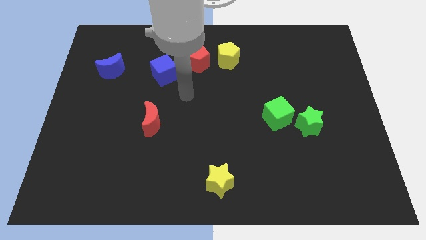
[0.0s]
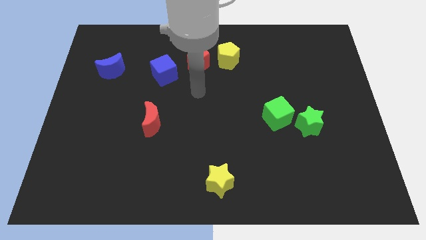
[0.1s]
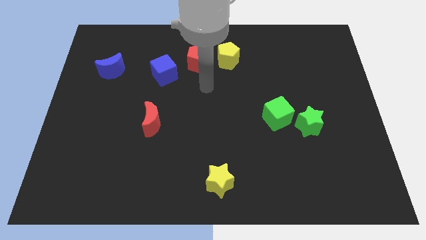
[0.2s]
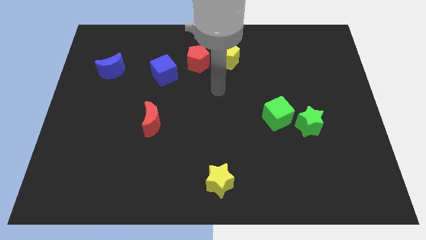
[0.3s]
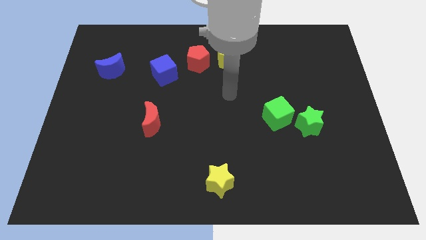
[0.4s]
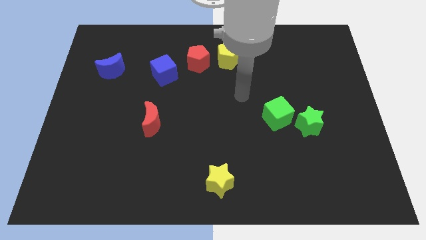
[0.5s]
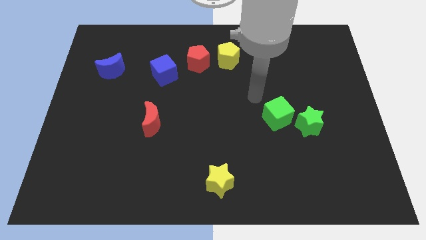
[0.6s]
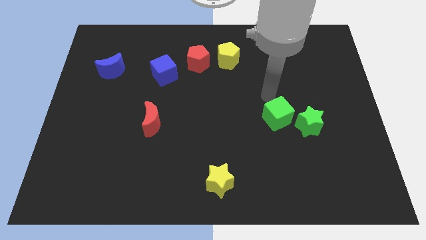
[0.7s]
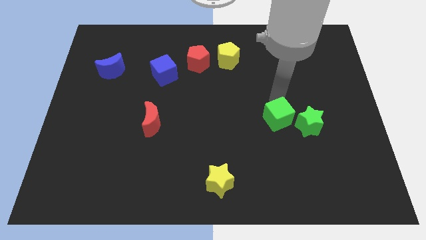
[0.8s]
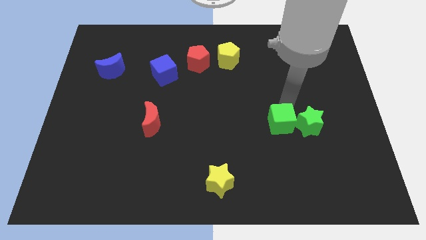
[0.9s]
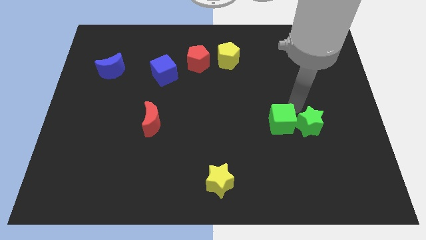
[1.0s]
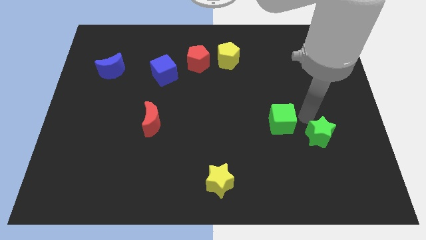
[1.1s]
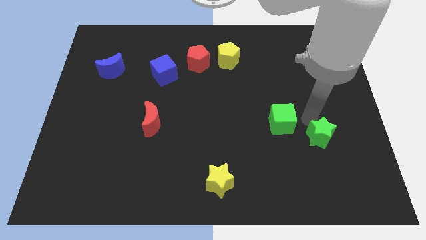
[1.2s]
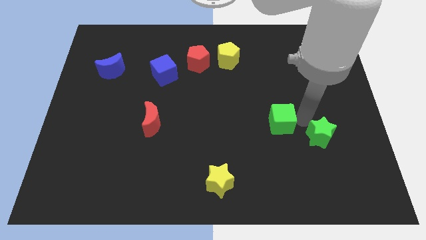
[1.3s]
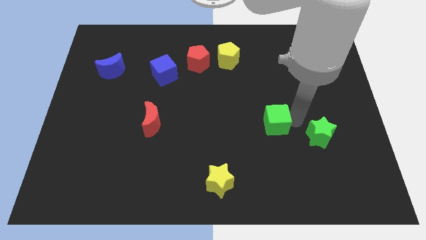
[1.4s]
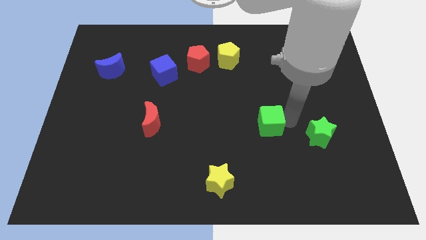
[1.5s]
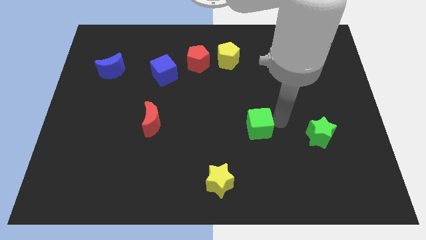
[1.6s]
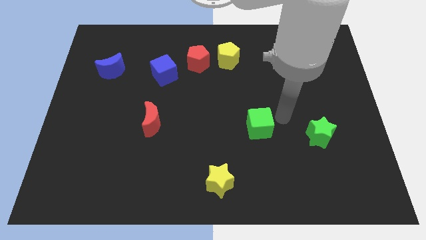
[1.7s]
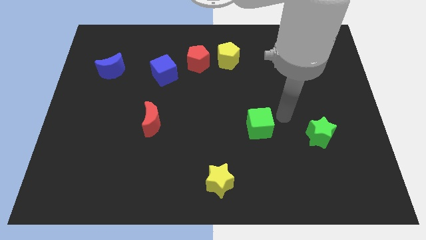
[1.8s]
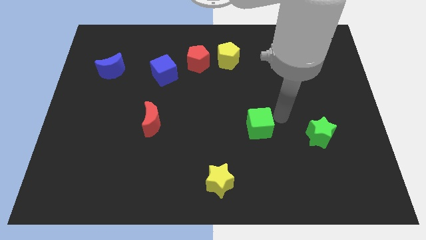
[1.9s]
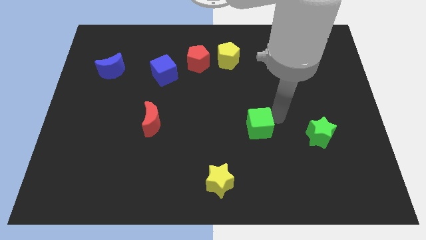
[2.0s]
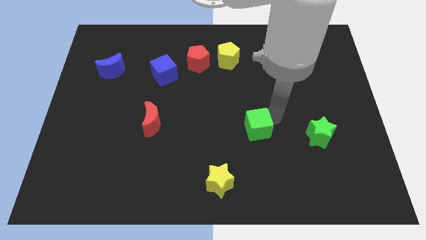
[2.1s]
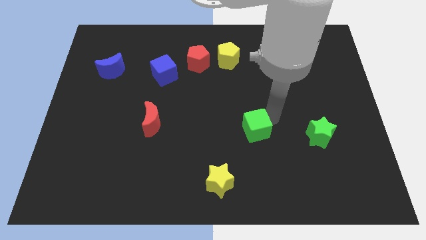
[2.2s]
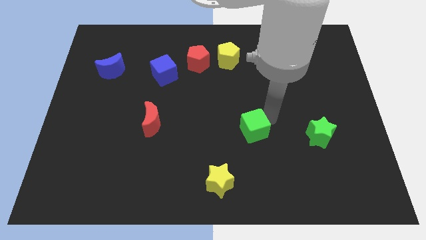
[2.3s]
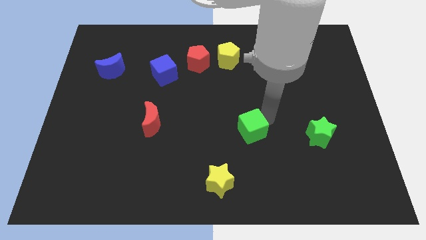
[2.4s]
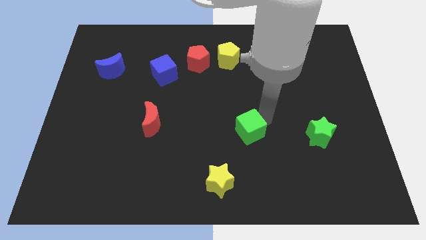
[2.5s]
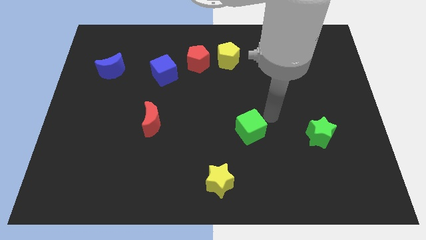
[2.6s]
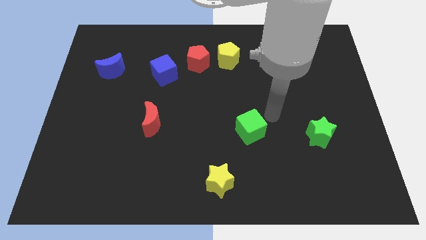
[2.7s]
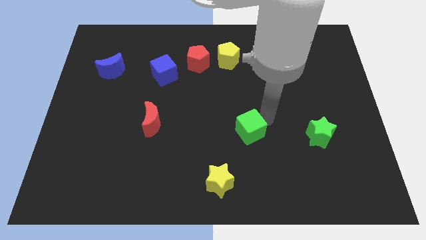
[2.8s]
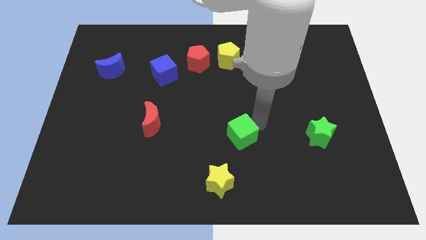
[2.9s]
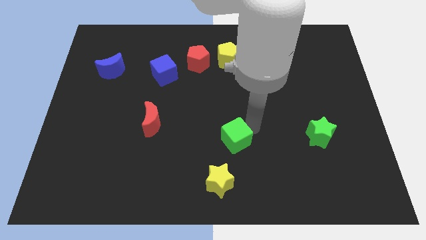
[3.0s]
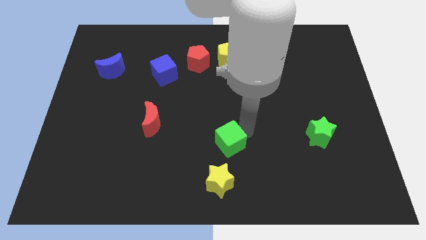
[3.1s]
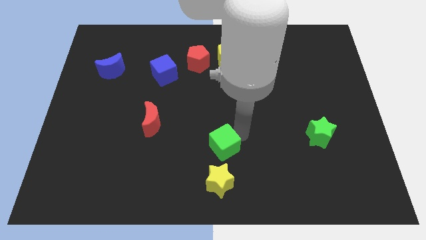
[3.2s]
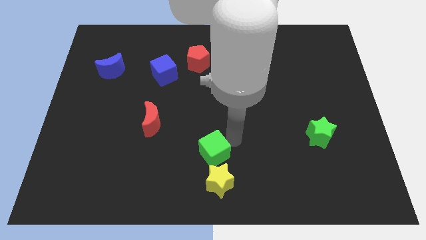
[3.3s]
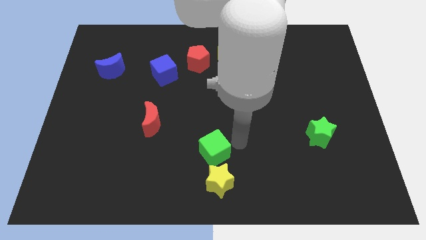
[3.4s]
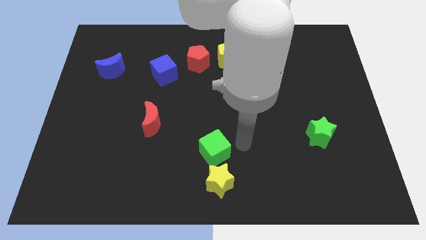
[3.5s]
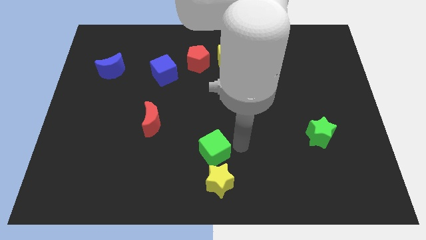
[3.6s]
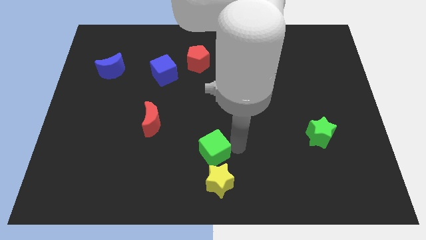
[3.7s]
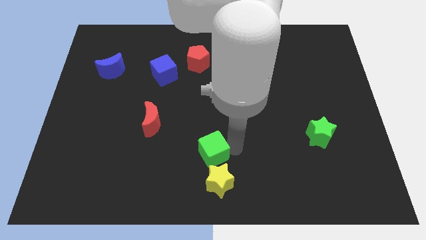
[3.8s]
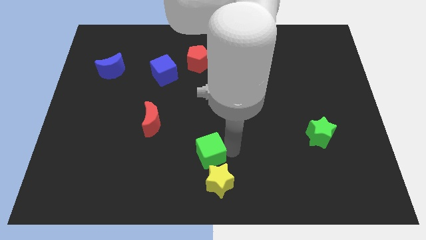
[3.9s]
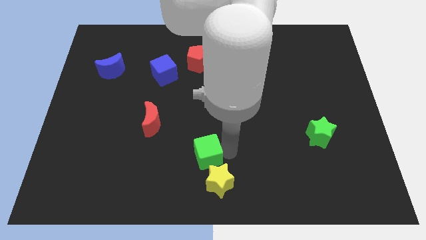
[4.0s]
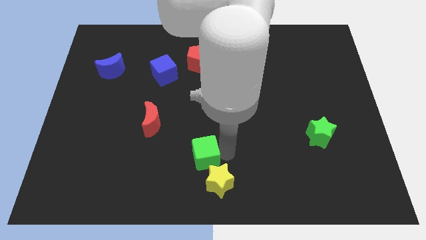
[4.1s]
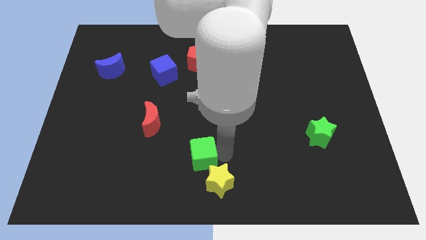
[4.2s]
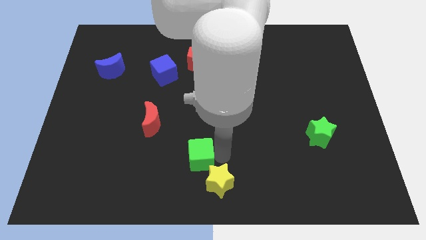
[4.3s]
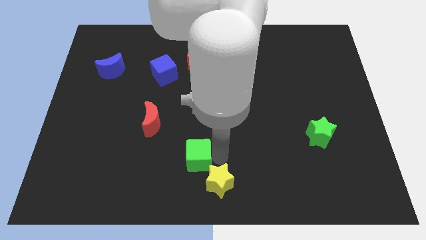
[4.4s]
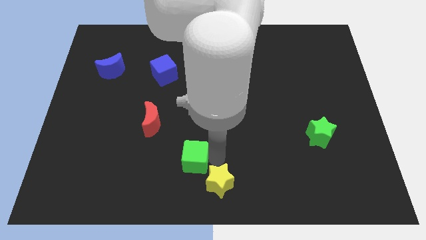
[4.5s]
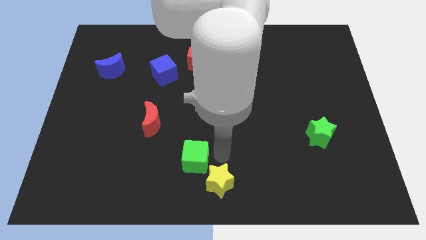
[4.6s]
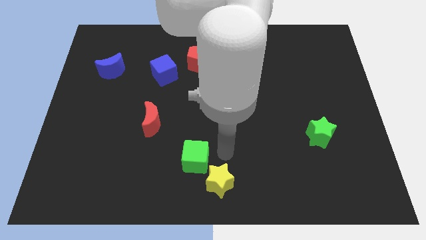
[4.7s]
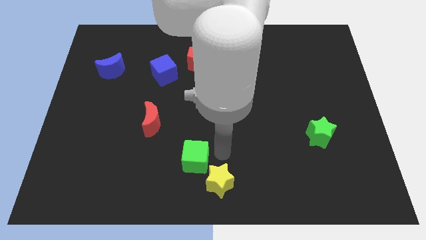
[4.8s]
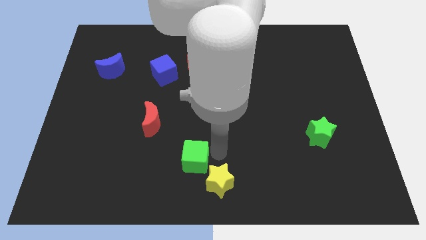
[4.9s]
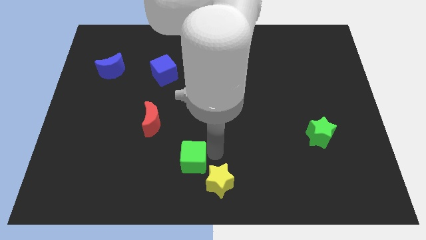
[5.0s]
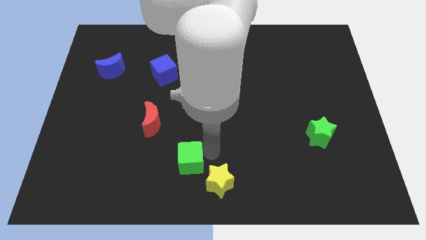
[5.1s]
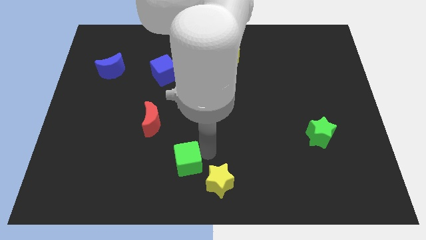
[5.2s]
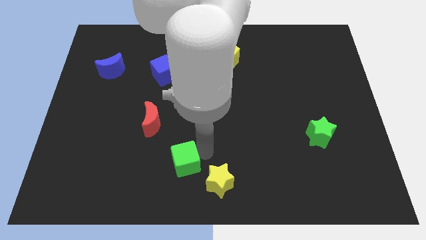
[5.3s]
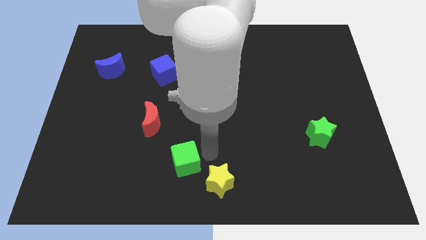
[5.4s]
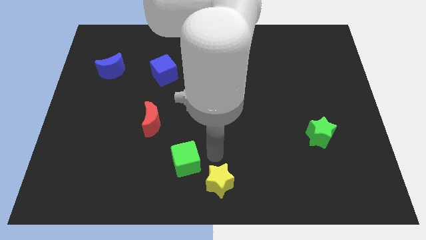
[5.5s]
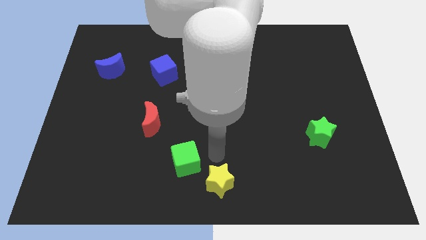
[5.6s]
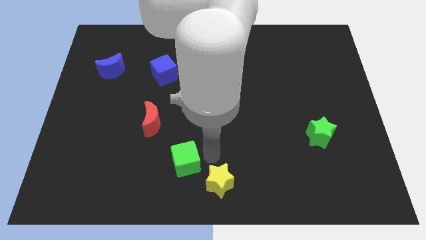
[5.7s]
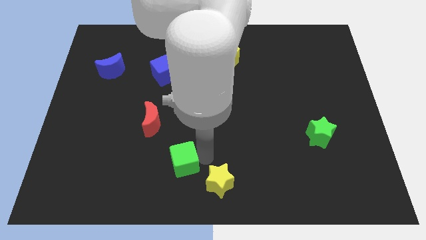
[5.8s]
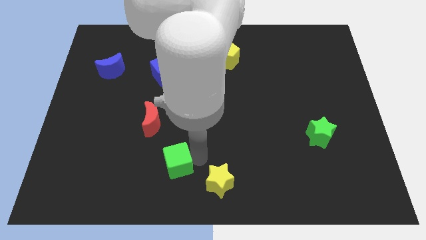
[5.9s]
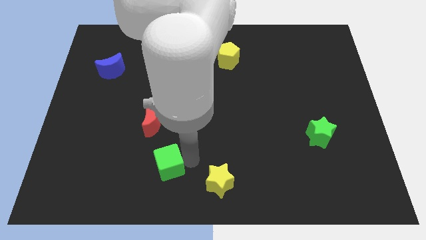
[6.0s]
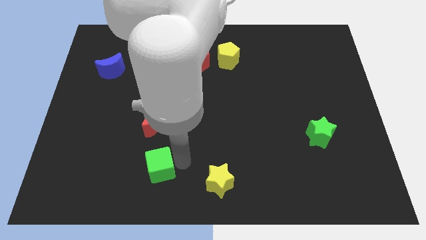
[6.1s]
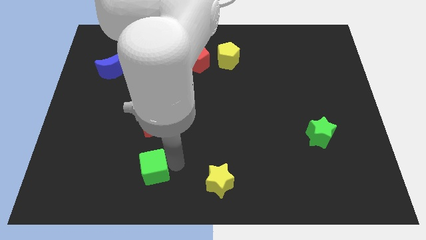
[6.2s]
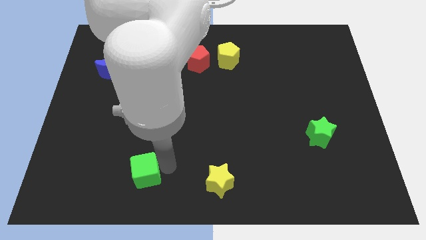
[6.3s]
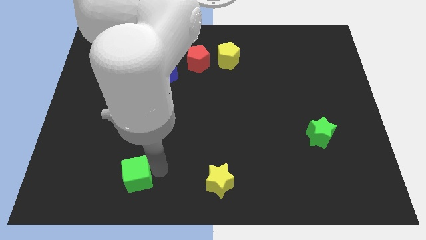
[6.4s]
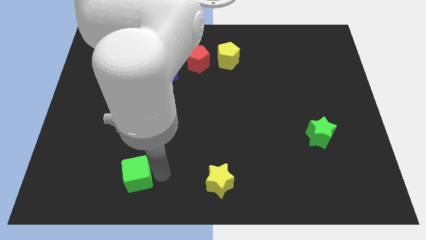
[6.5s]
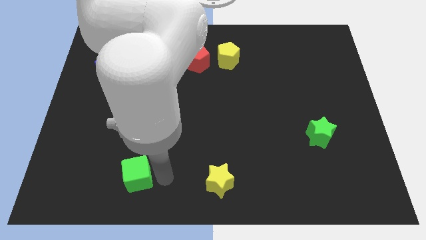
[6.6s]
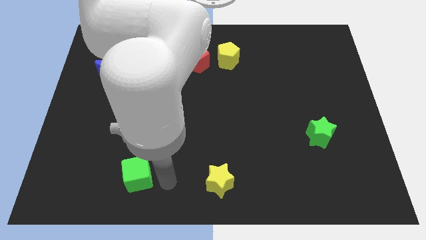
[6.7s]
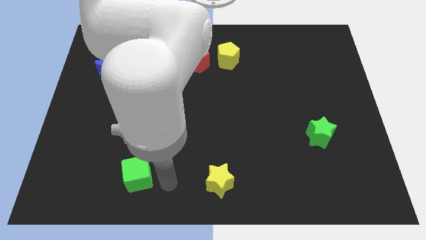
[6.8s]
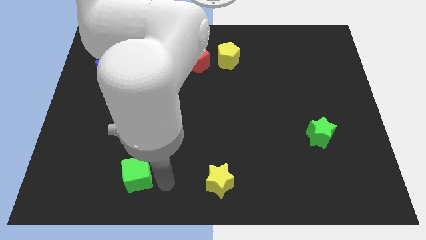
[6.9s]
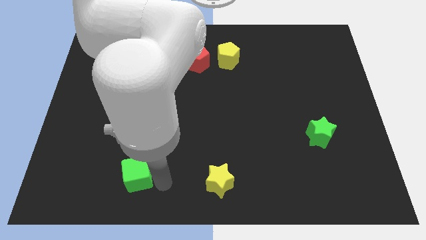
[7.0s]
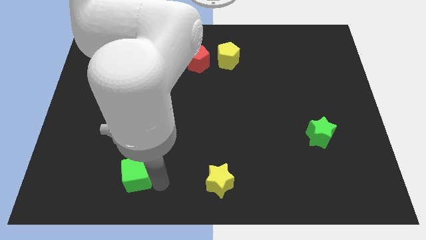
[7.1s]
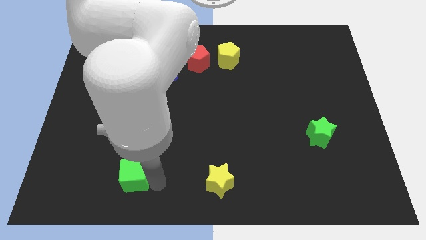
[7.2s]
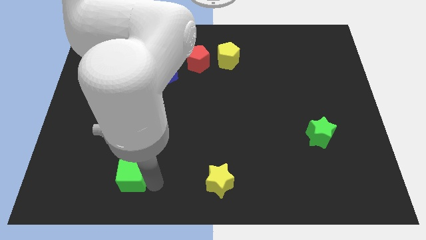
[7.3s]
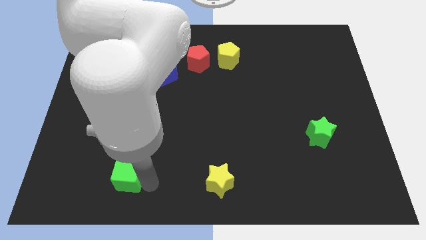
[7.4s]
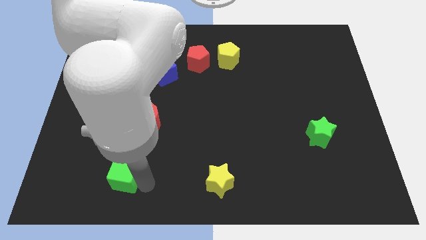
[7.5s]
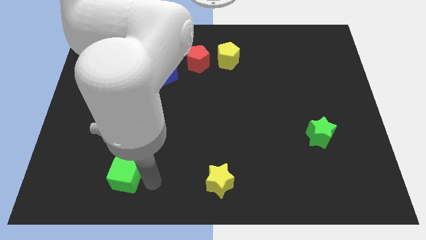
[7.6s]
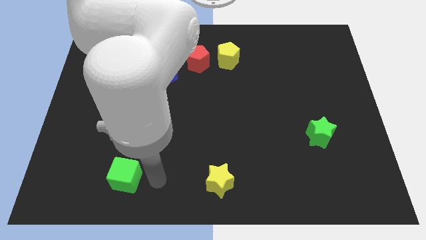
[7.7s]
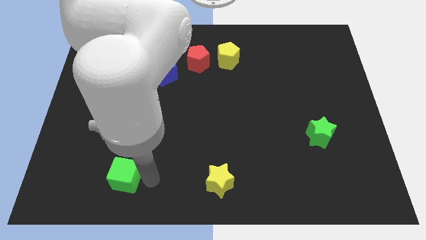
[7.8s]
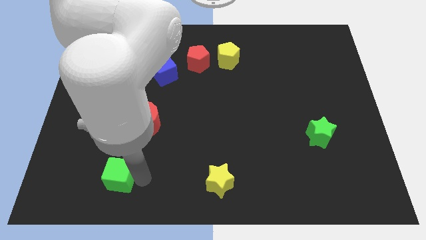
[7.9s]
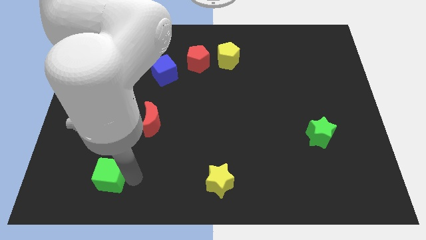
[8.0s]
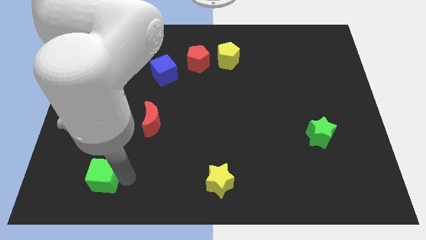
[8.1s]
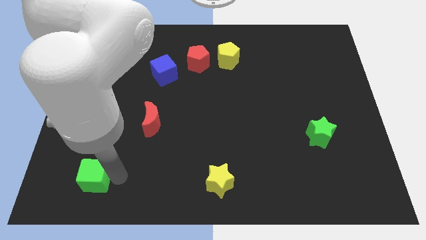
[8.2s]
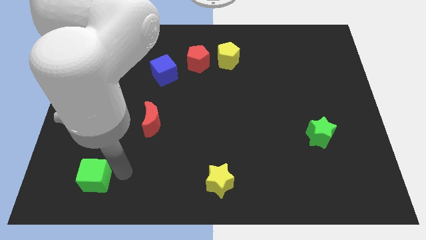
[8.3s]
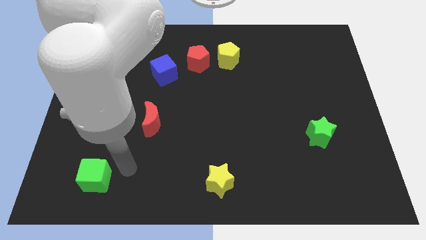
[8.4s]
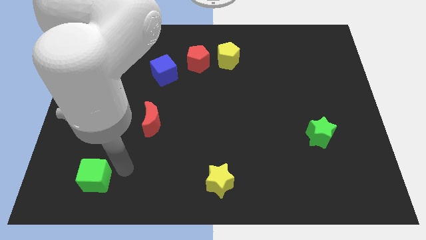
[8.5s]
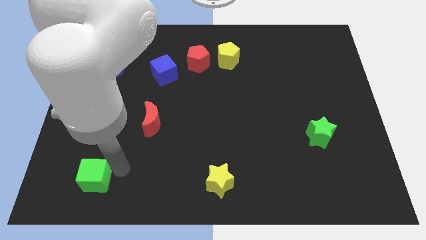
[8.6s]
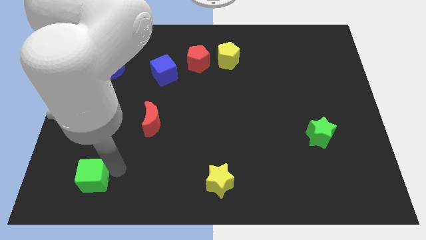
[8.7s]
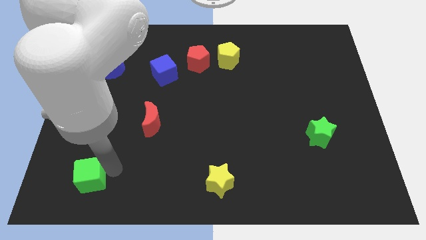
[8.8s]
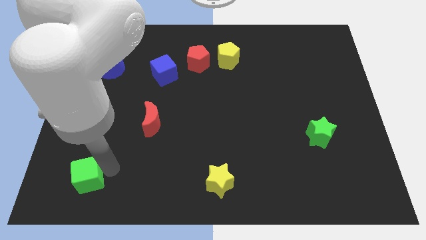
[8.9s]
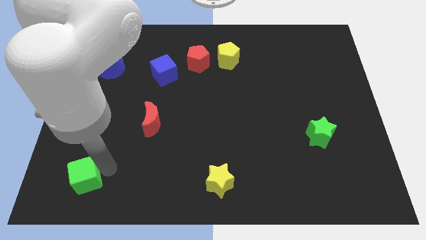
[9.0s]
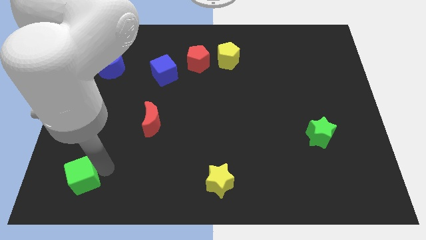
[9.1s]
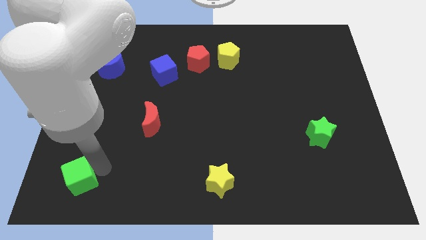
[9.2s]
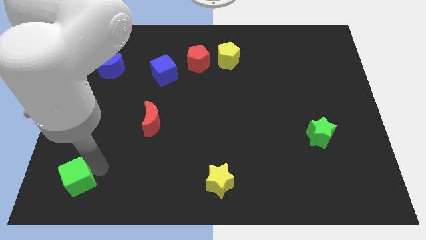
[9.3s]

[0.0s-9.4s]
move the green cube to the lower left corner
